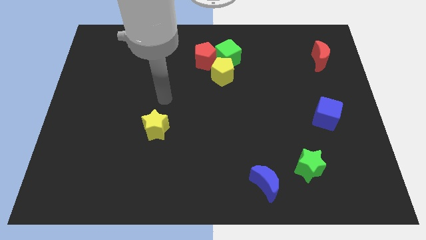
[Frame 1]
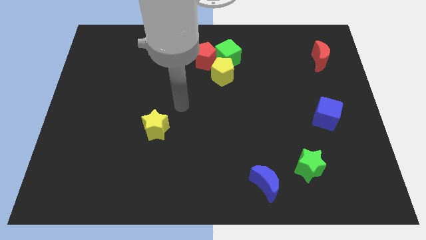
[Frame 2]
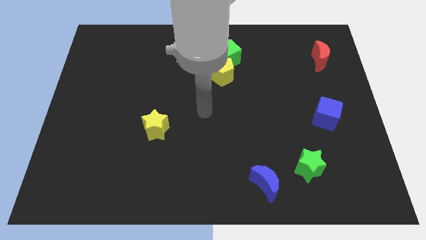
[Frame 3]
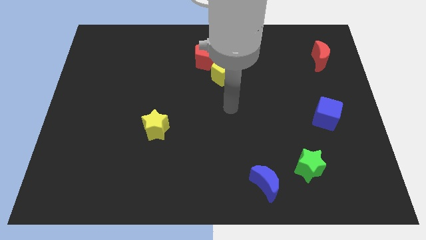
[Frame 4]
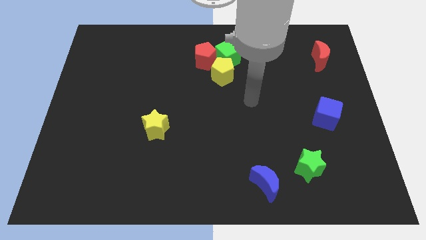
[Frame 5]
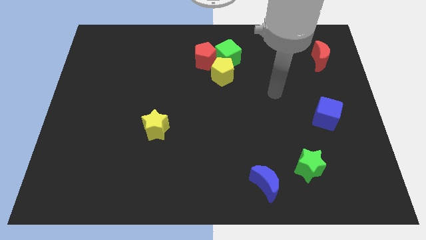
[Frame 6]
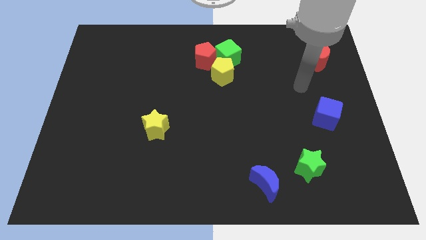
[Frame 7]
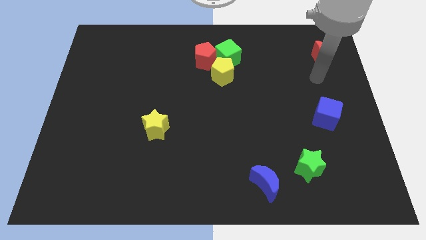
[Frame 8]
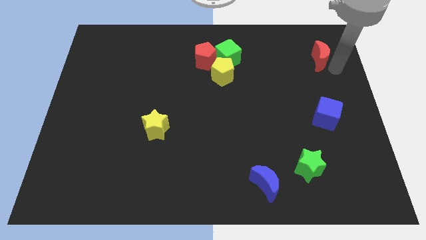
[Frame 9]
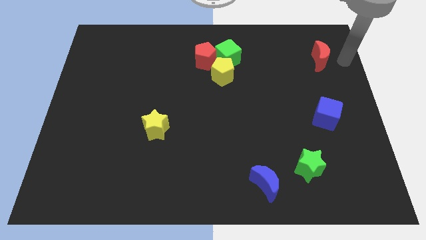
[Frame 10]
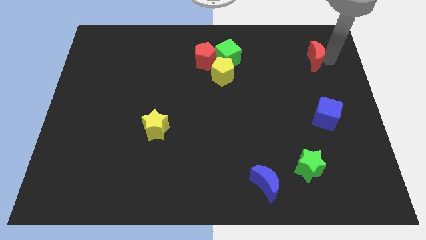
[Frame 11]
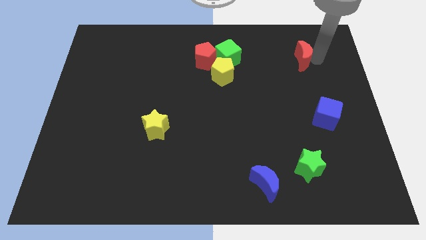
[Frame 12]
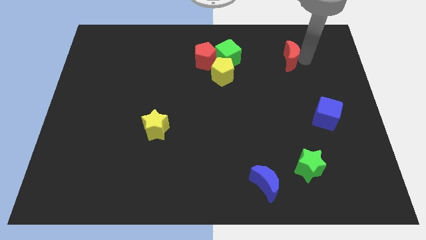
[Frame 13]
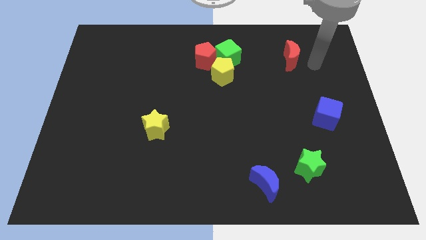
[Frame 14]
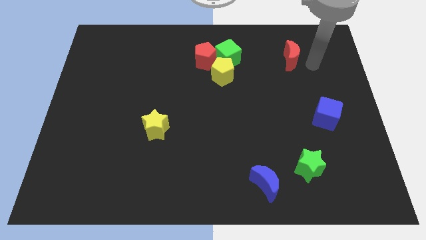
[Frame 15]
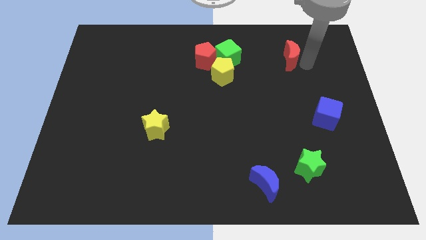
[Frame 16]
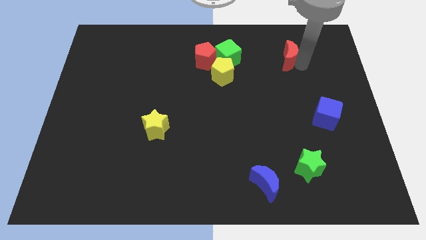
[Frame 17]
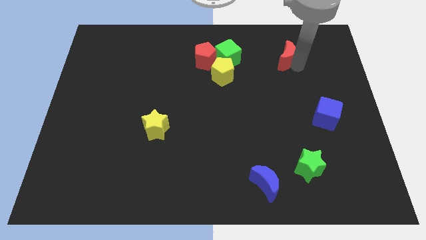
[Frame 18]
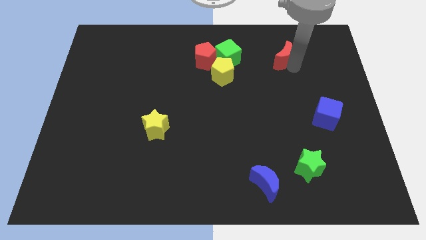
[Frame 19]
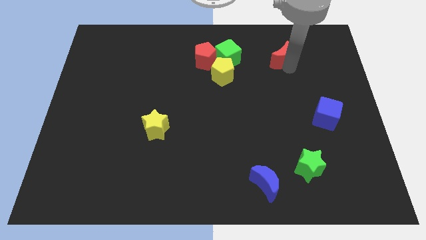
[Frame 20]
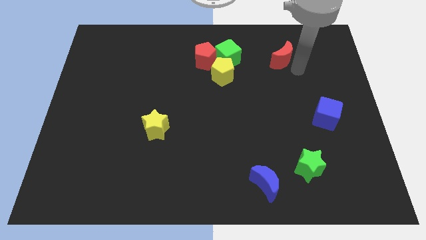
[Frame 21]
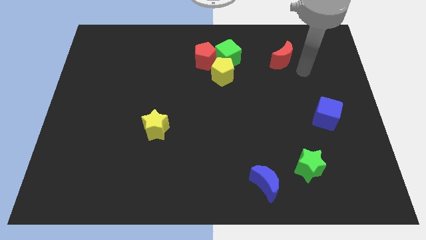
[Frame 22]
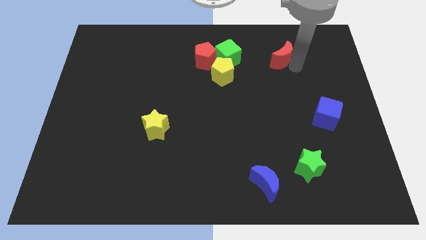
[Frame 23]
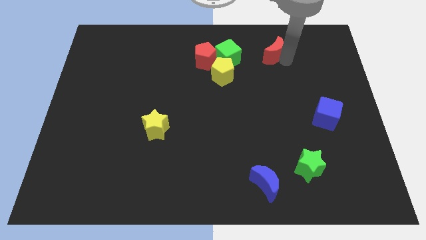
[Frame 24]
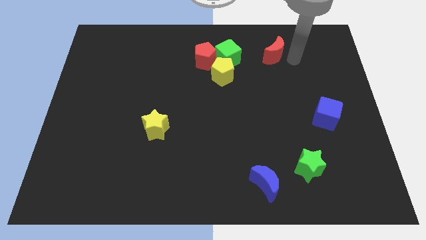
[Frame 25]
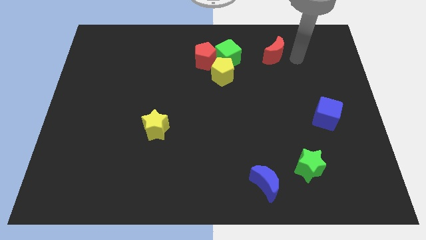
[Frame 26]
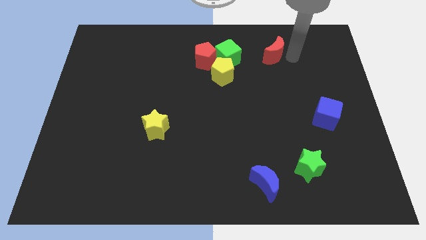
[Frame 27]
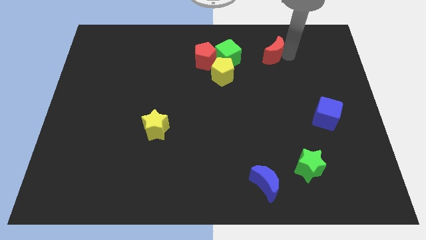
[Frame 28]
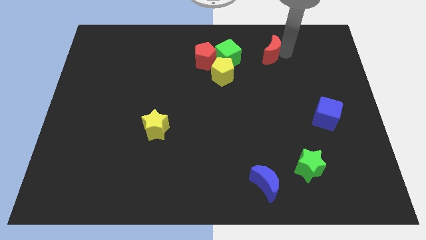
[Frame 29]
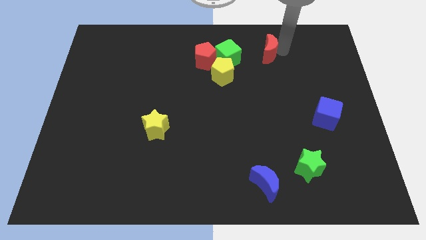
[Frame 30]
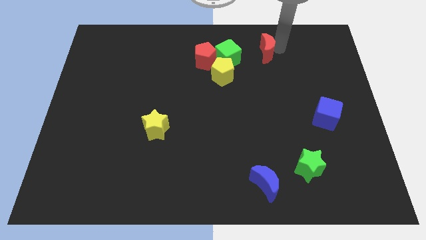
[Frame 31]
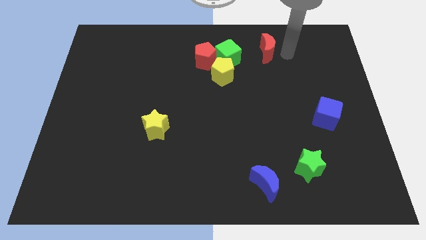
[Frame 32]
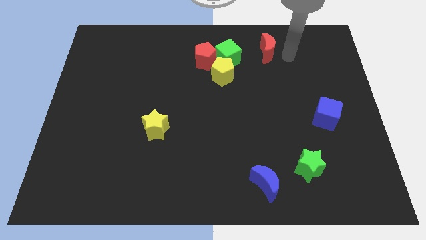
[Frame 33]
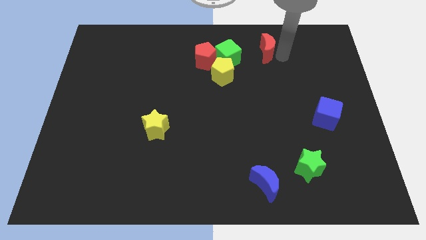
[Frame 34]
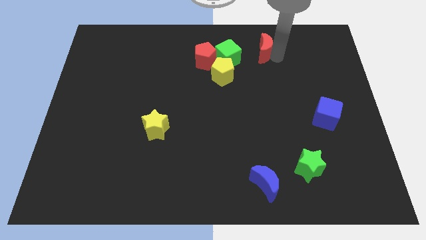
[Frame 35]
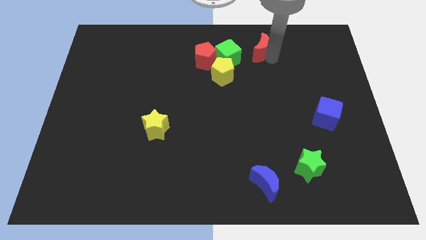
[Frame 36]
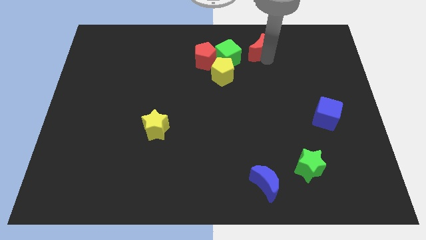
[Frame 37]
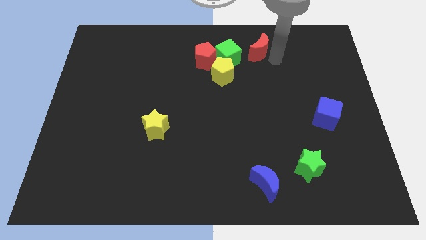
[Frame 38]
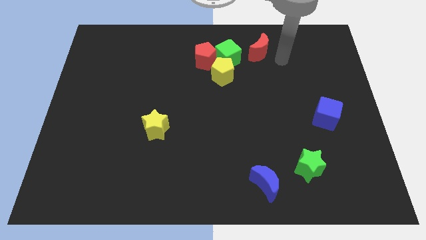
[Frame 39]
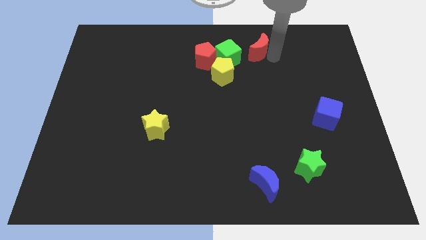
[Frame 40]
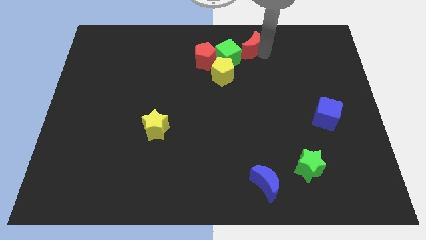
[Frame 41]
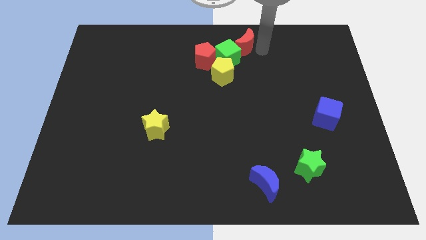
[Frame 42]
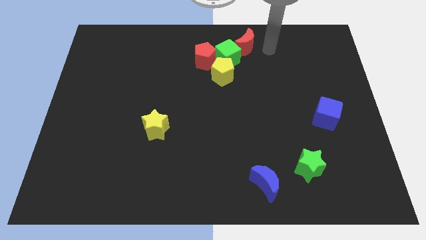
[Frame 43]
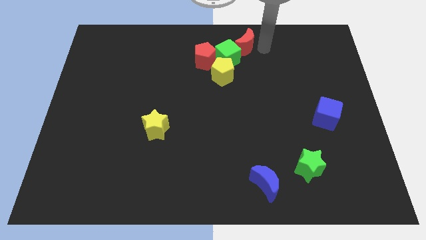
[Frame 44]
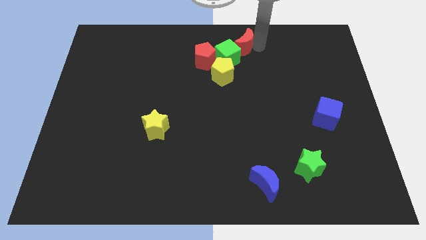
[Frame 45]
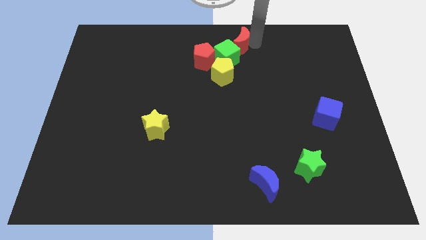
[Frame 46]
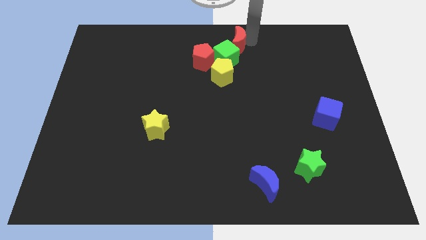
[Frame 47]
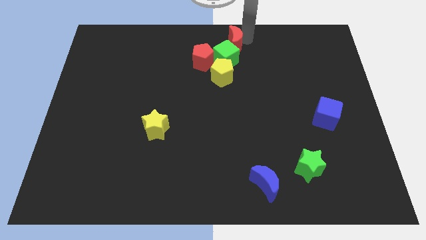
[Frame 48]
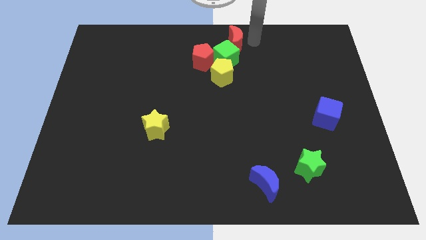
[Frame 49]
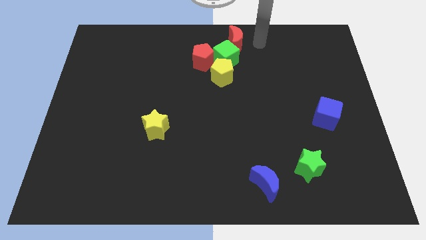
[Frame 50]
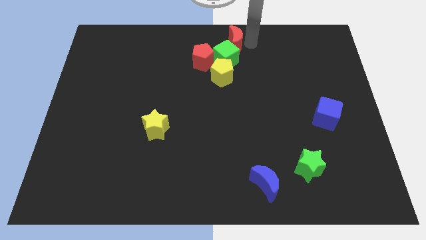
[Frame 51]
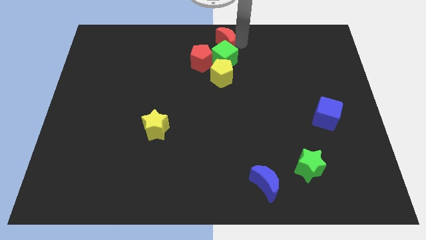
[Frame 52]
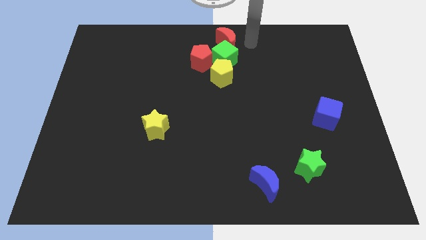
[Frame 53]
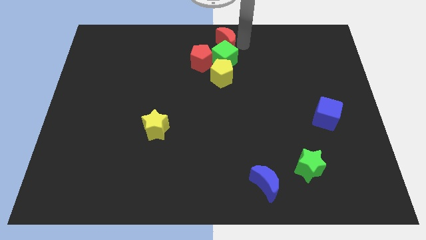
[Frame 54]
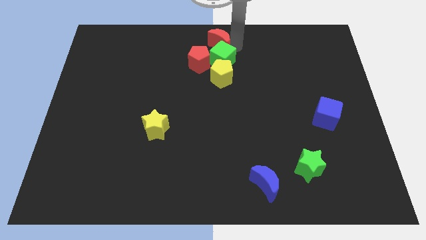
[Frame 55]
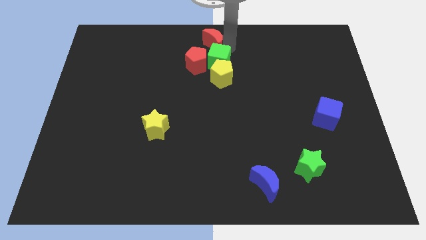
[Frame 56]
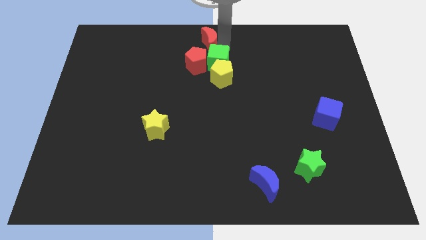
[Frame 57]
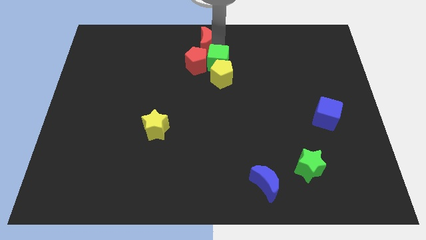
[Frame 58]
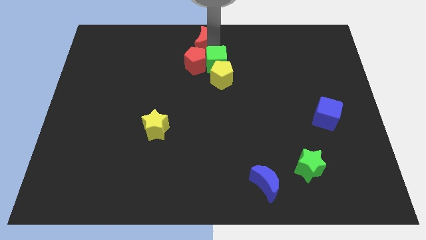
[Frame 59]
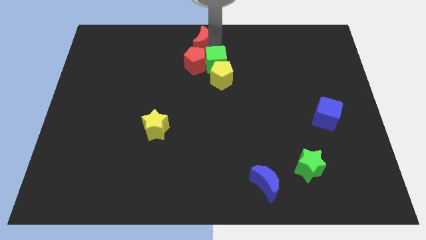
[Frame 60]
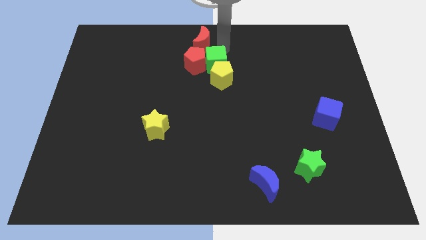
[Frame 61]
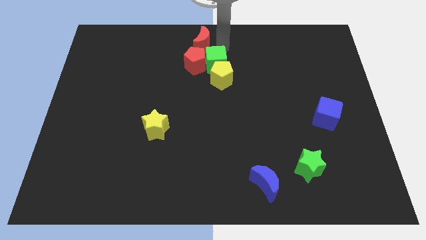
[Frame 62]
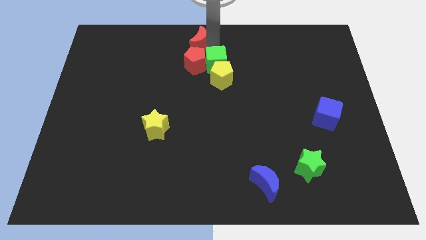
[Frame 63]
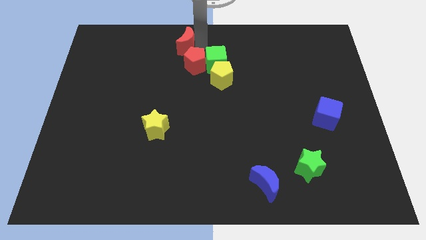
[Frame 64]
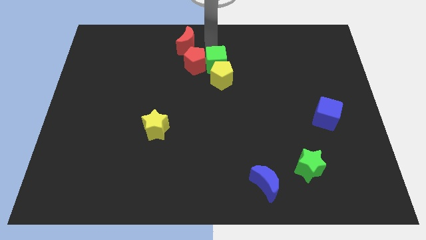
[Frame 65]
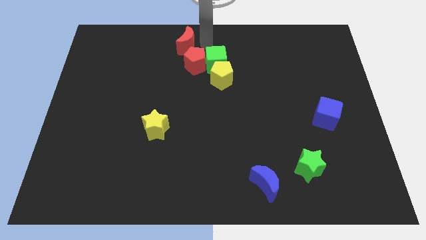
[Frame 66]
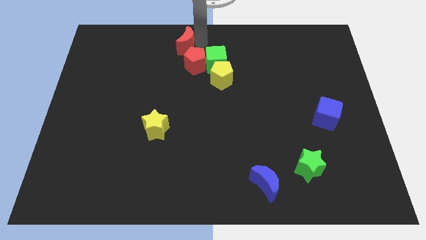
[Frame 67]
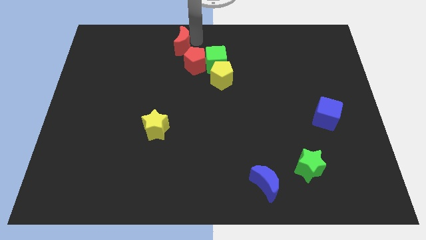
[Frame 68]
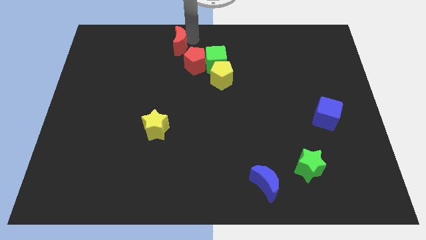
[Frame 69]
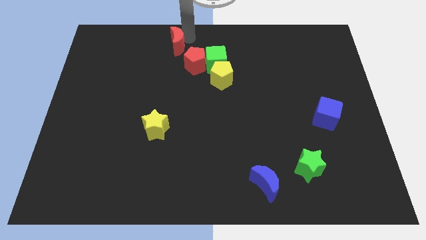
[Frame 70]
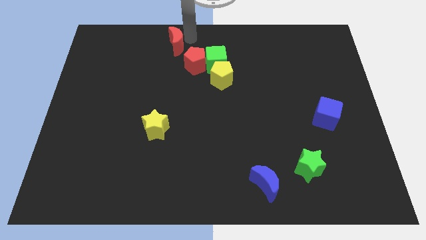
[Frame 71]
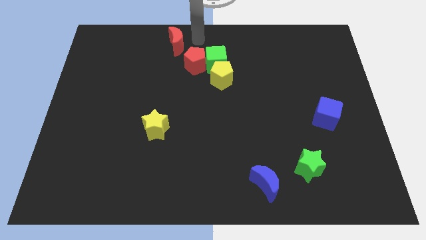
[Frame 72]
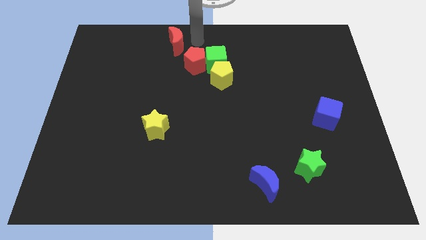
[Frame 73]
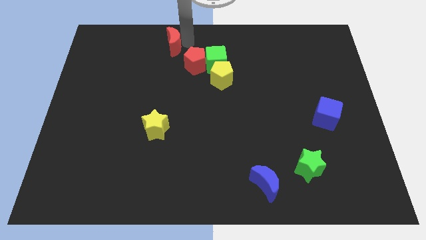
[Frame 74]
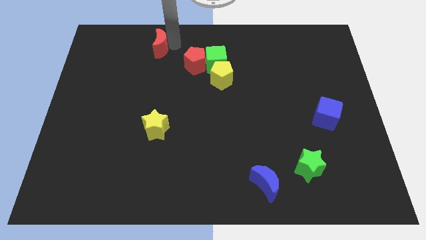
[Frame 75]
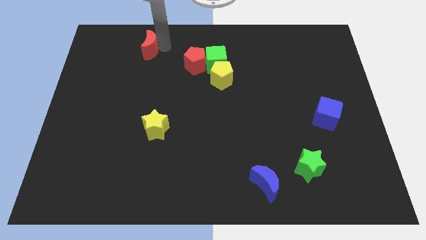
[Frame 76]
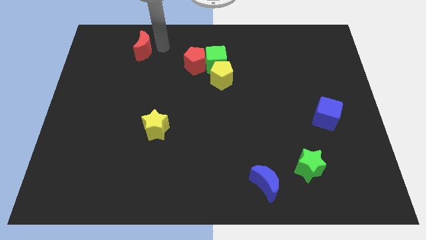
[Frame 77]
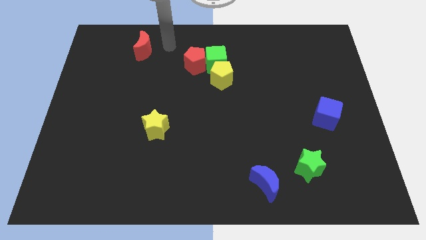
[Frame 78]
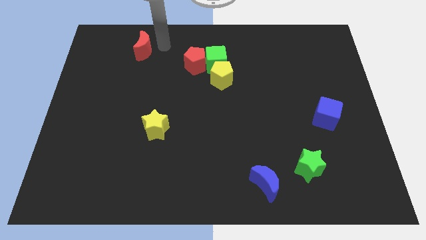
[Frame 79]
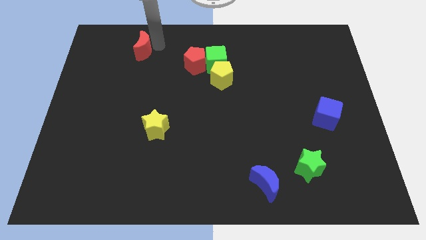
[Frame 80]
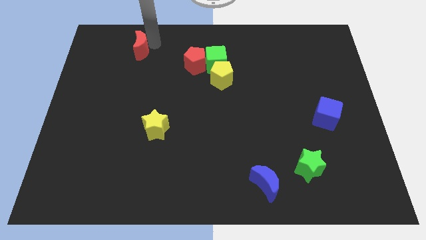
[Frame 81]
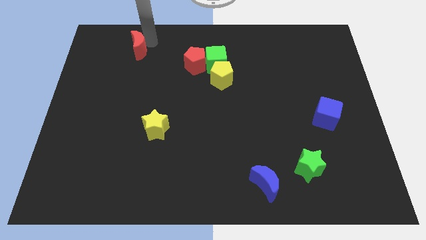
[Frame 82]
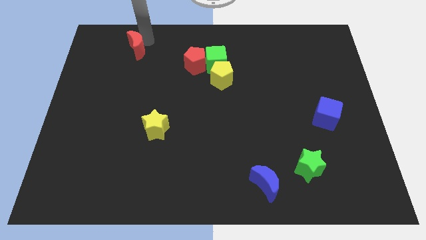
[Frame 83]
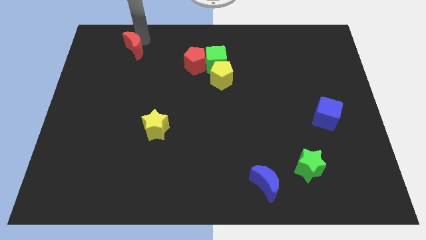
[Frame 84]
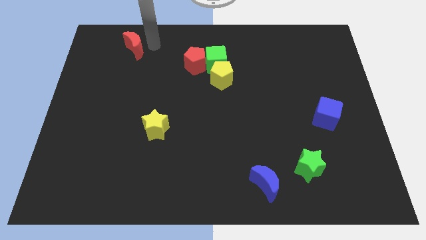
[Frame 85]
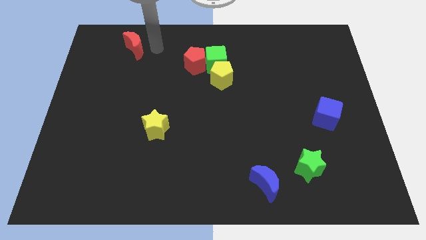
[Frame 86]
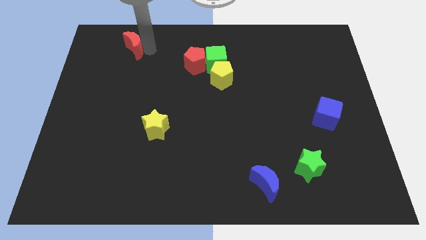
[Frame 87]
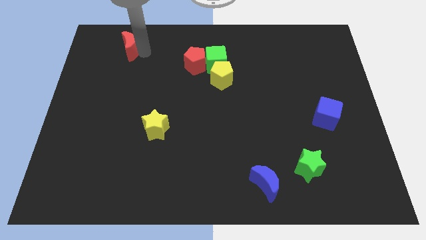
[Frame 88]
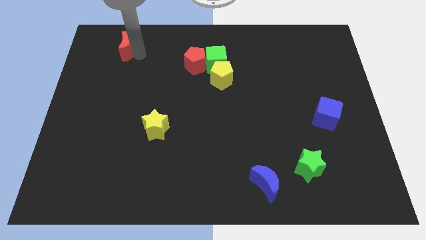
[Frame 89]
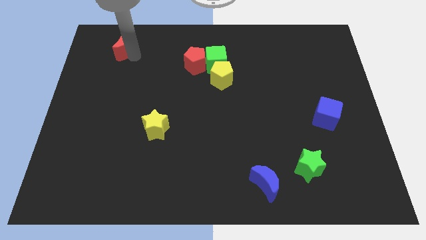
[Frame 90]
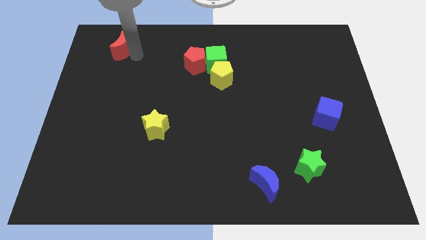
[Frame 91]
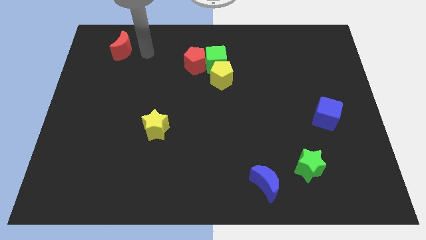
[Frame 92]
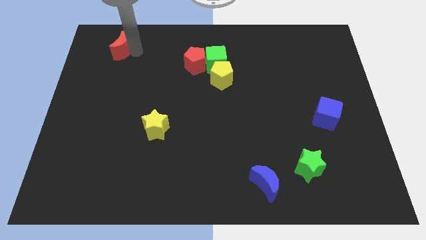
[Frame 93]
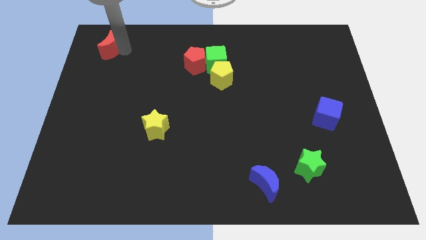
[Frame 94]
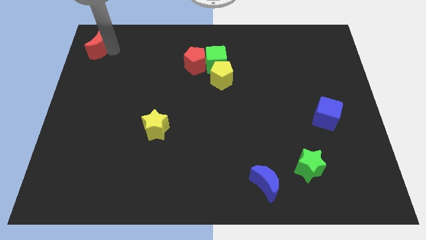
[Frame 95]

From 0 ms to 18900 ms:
put the red moon to the upper left corner
